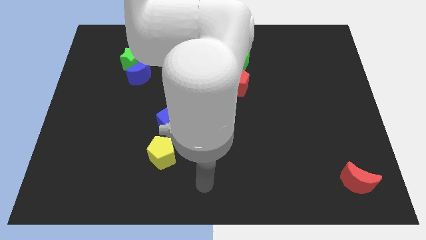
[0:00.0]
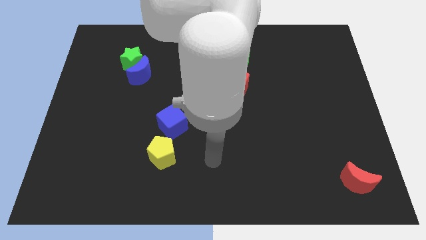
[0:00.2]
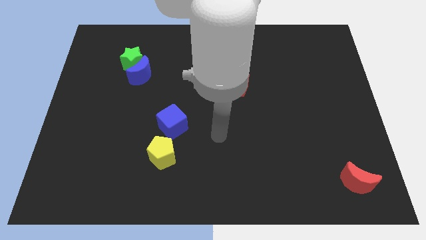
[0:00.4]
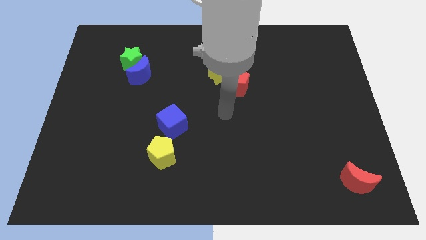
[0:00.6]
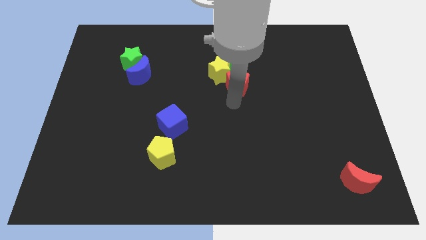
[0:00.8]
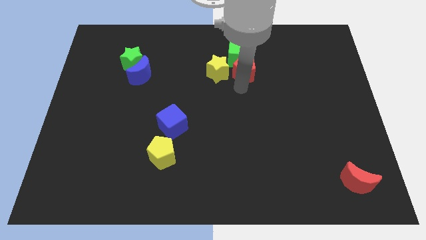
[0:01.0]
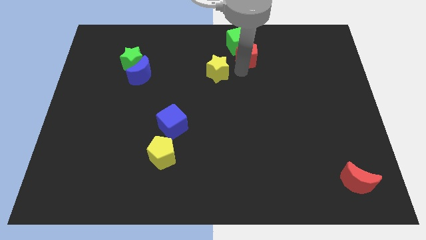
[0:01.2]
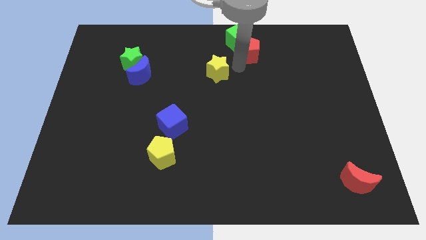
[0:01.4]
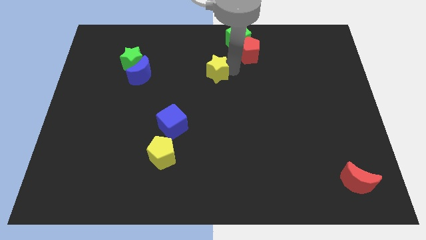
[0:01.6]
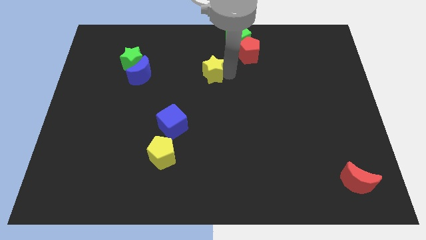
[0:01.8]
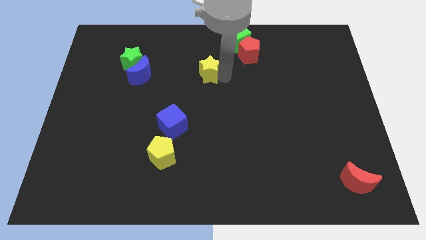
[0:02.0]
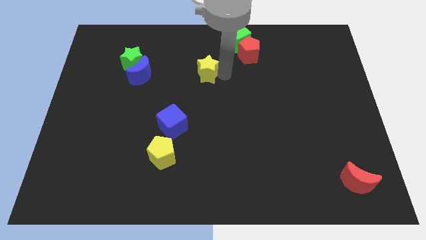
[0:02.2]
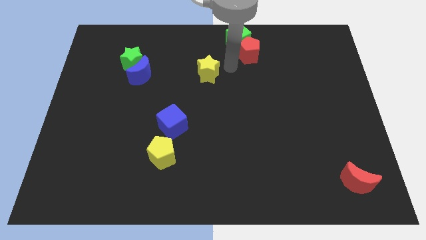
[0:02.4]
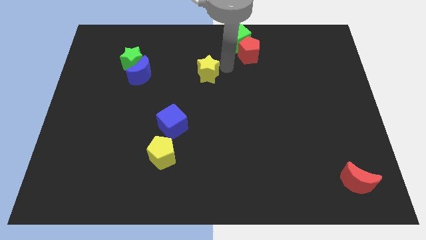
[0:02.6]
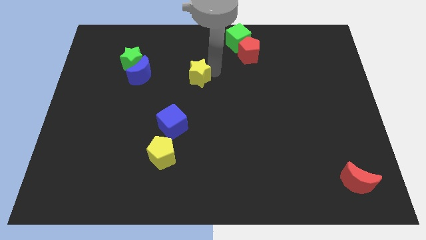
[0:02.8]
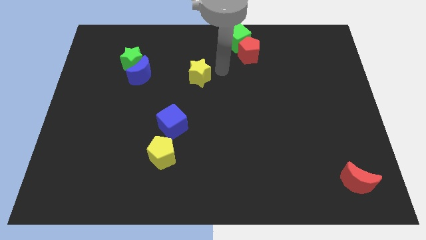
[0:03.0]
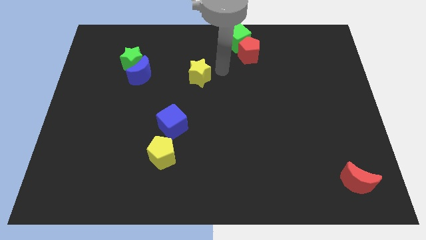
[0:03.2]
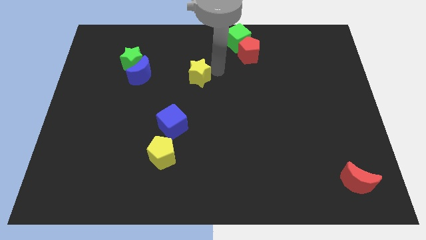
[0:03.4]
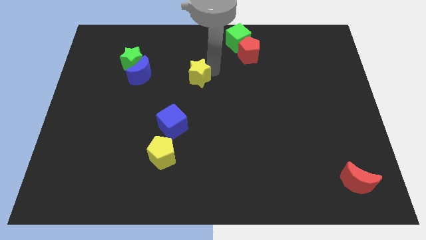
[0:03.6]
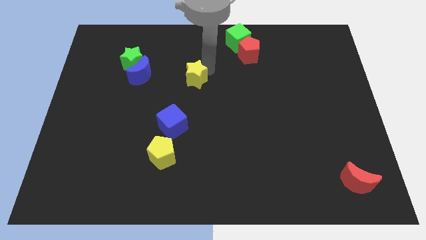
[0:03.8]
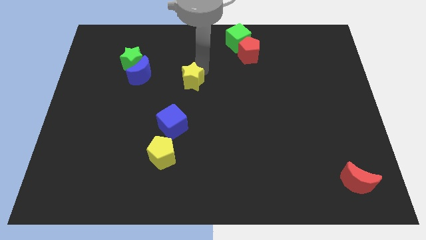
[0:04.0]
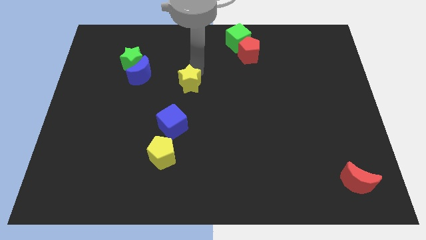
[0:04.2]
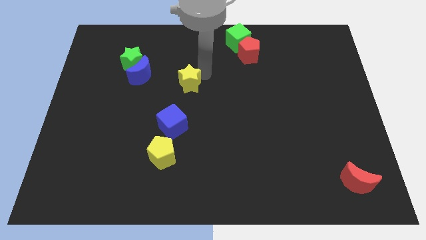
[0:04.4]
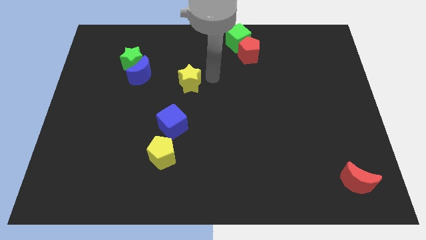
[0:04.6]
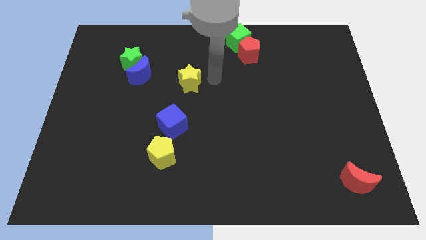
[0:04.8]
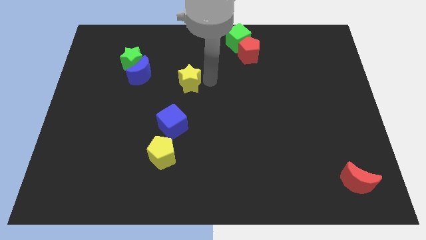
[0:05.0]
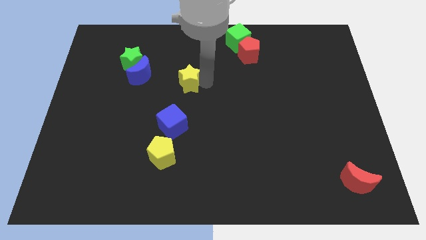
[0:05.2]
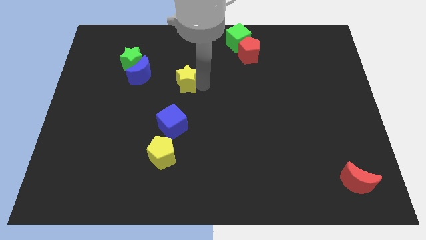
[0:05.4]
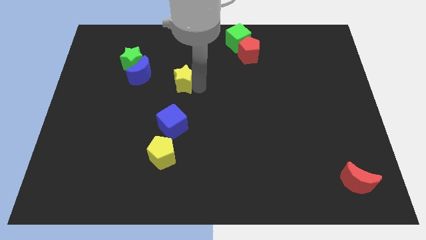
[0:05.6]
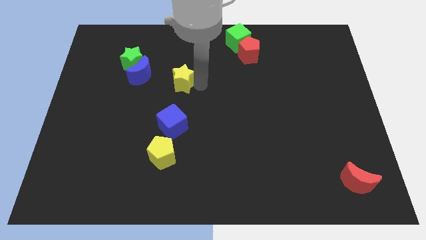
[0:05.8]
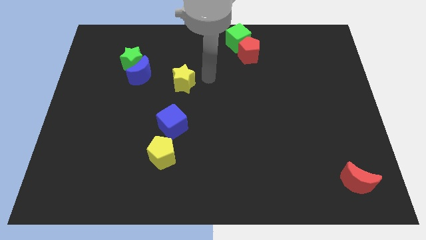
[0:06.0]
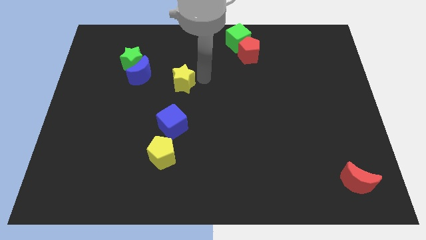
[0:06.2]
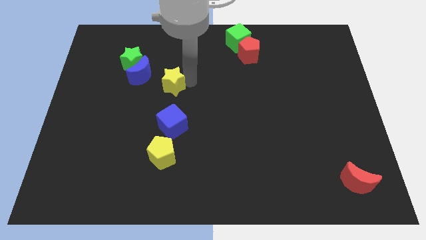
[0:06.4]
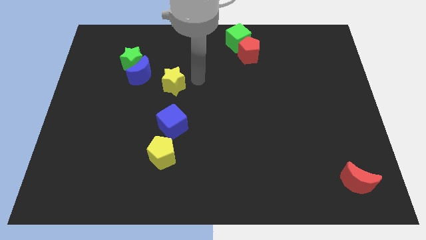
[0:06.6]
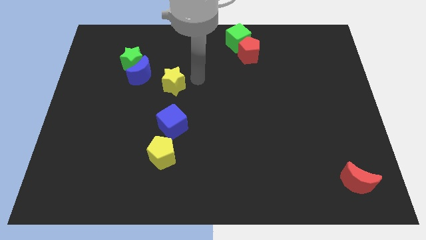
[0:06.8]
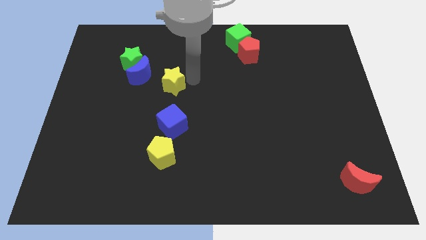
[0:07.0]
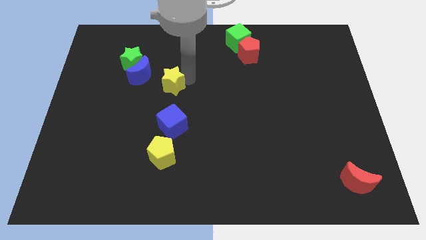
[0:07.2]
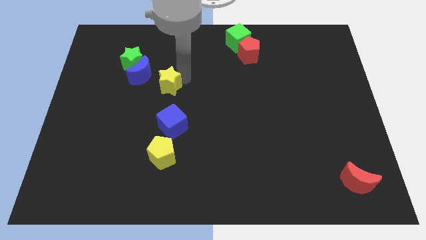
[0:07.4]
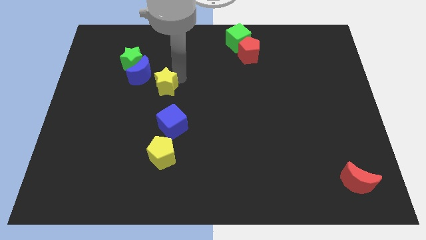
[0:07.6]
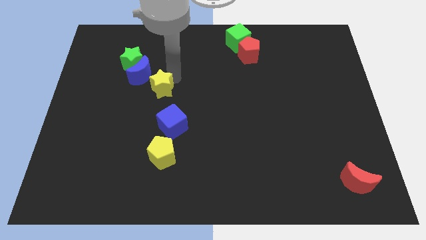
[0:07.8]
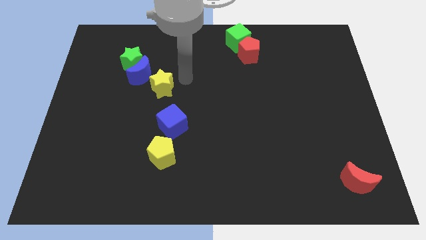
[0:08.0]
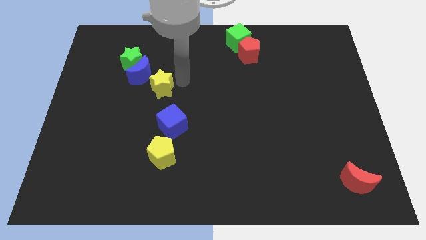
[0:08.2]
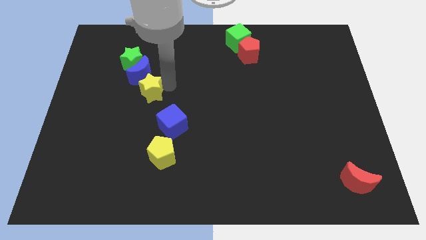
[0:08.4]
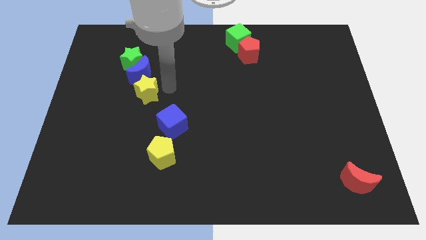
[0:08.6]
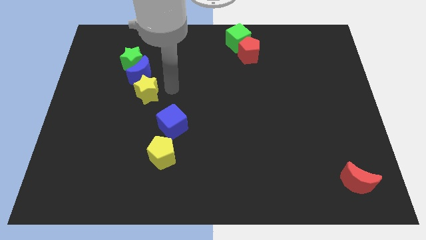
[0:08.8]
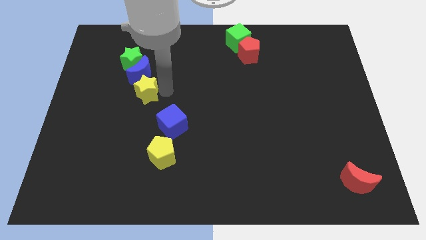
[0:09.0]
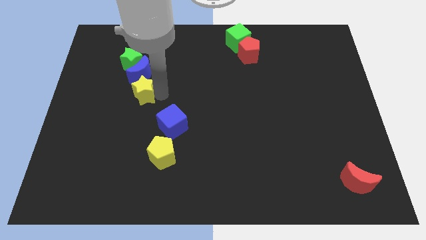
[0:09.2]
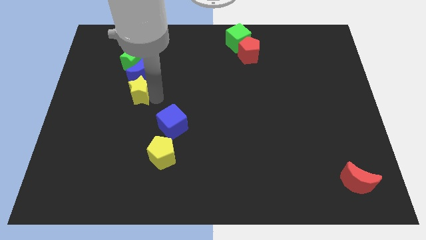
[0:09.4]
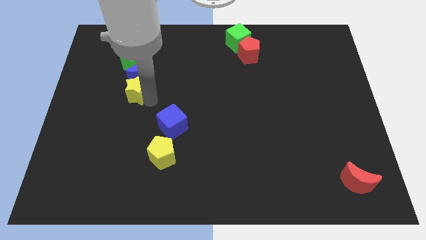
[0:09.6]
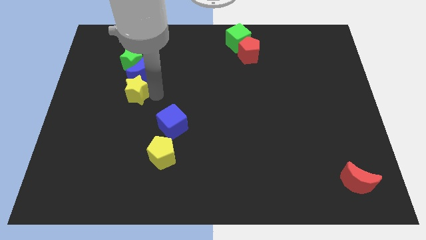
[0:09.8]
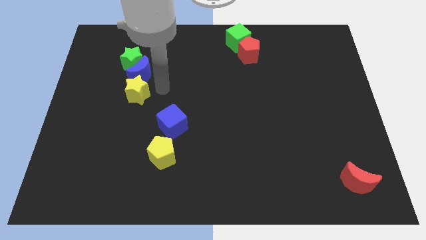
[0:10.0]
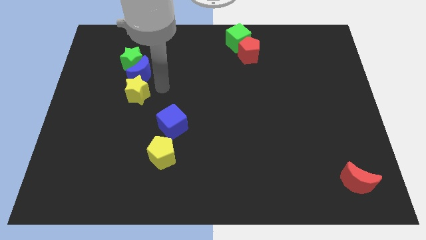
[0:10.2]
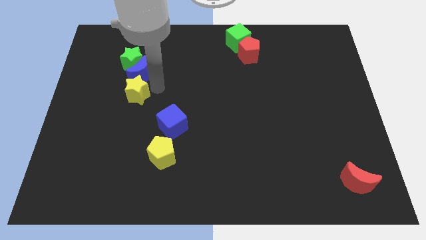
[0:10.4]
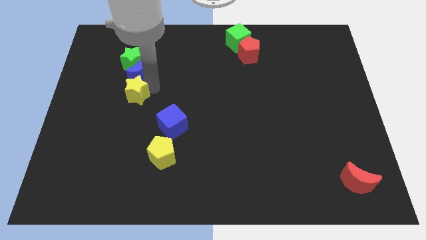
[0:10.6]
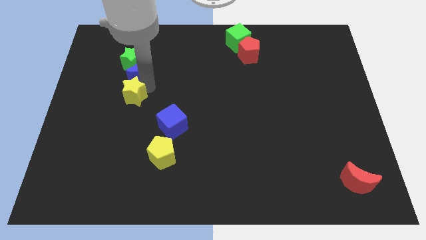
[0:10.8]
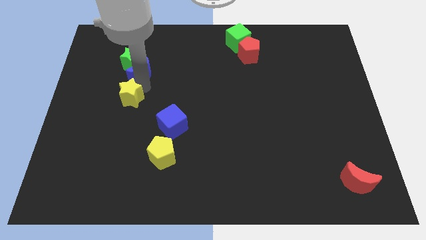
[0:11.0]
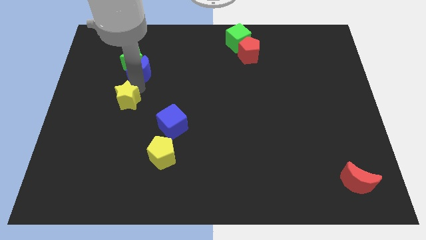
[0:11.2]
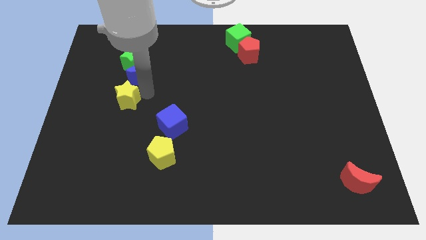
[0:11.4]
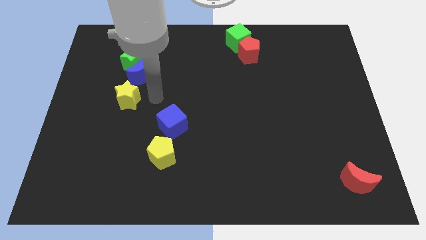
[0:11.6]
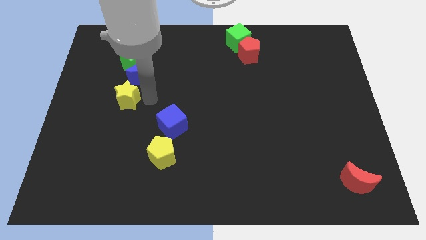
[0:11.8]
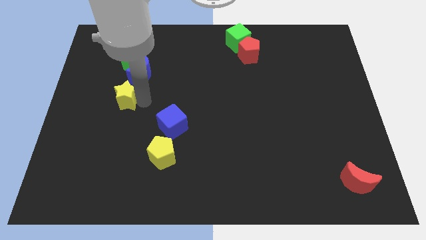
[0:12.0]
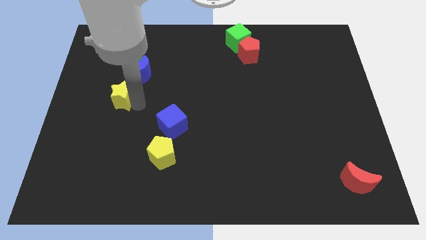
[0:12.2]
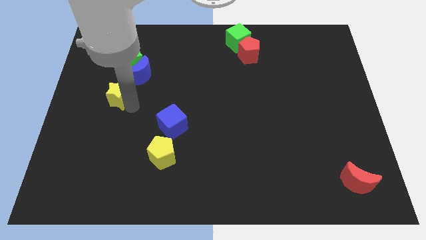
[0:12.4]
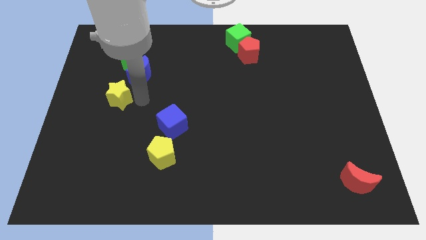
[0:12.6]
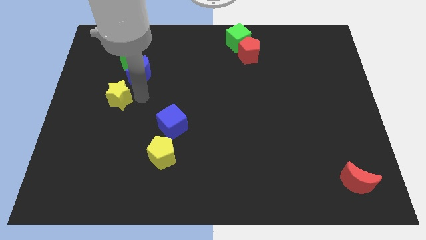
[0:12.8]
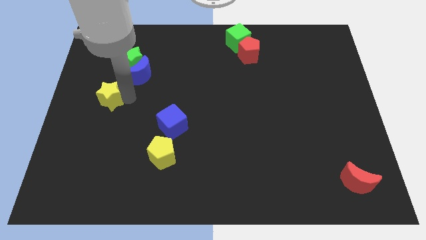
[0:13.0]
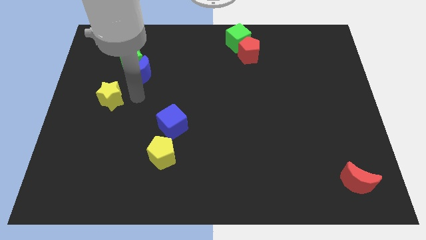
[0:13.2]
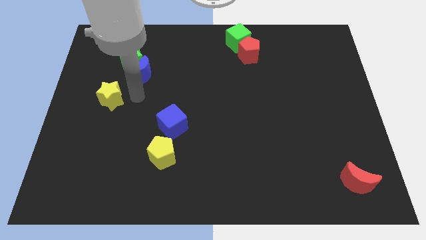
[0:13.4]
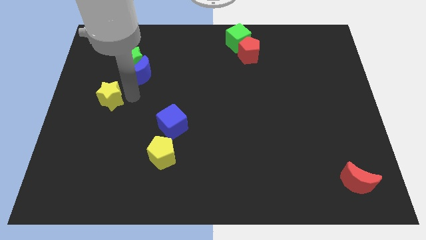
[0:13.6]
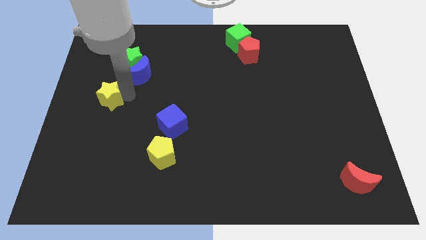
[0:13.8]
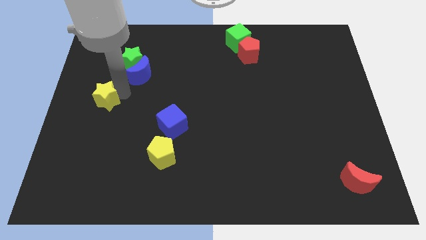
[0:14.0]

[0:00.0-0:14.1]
move the yellow star to the left side of the board
